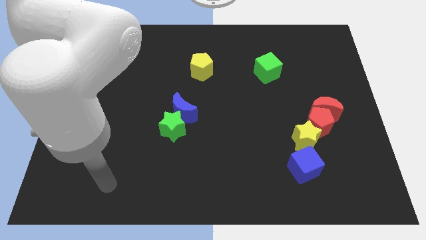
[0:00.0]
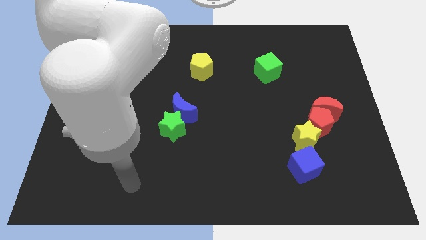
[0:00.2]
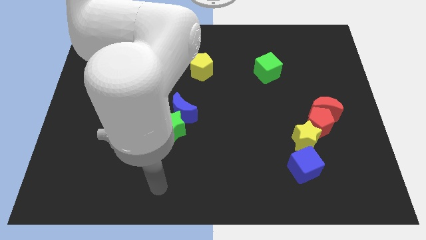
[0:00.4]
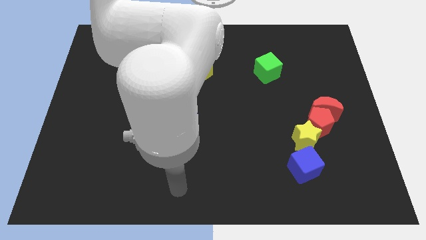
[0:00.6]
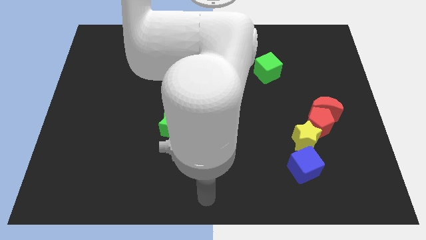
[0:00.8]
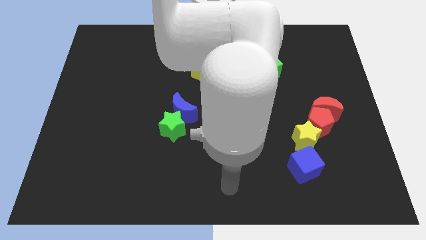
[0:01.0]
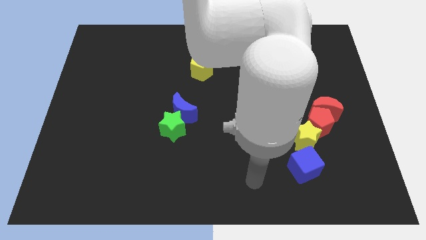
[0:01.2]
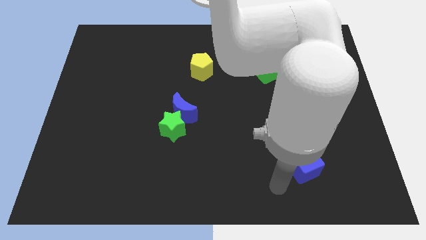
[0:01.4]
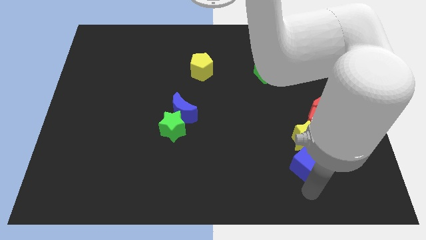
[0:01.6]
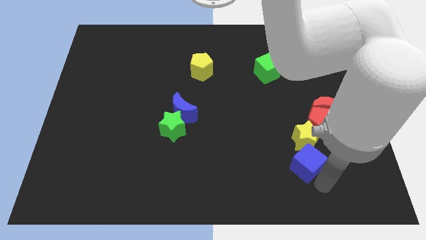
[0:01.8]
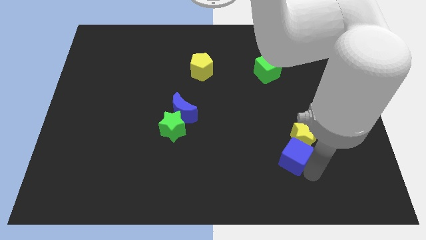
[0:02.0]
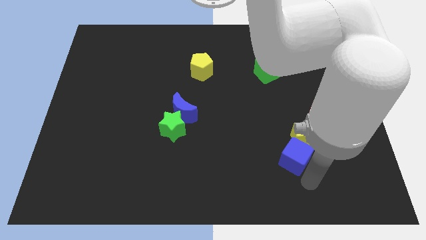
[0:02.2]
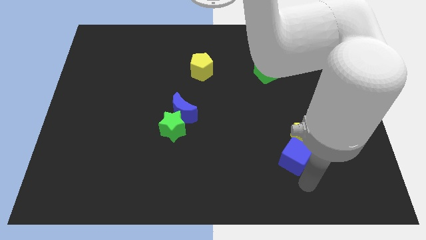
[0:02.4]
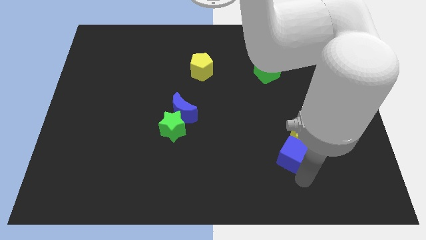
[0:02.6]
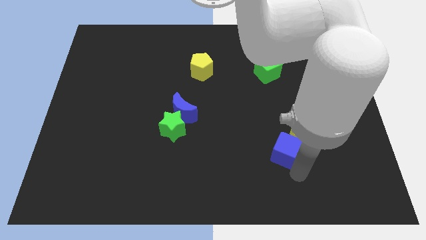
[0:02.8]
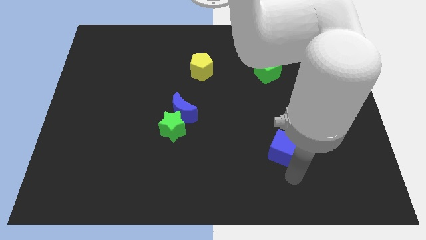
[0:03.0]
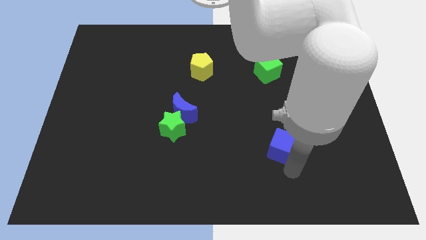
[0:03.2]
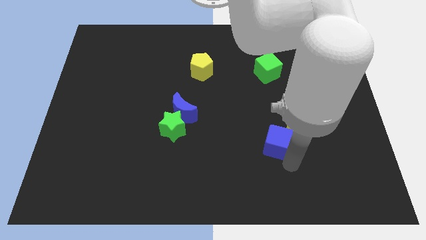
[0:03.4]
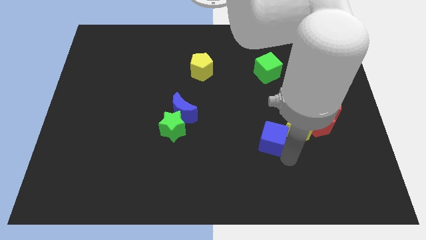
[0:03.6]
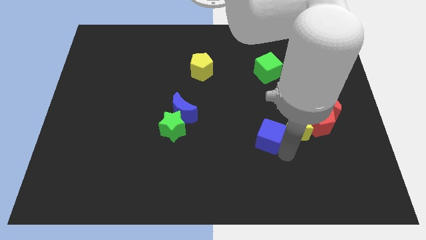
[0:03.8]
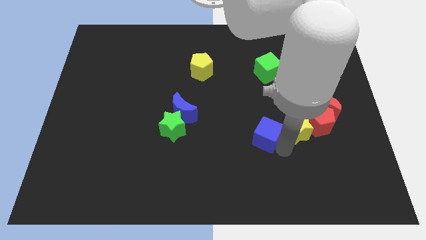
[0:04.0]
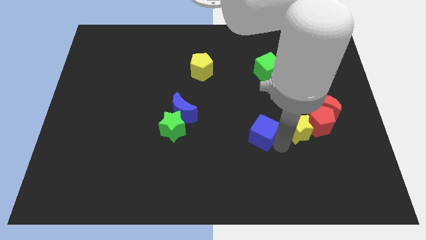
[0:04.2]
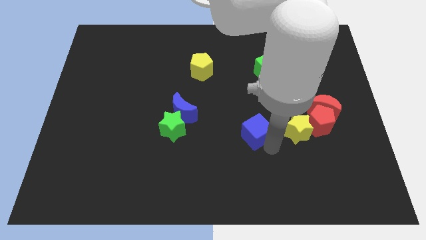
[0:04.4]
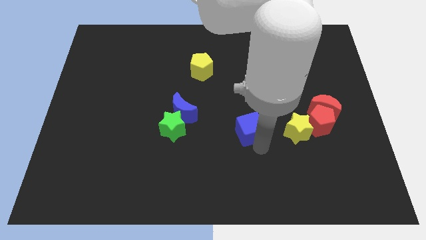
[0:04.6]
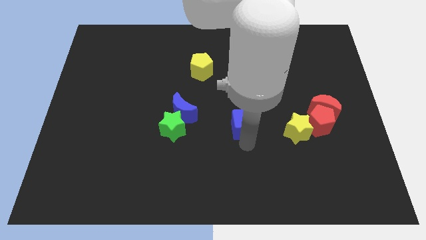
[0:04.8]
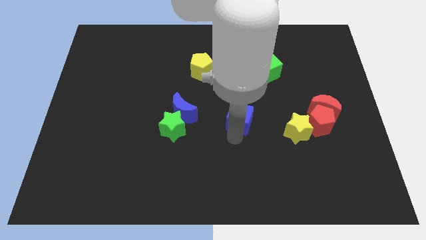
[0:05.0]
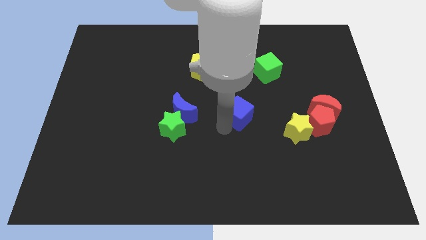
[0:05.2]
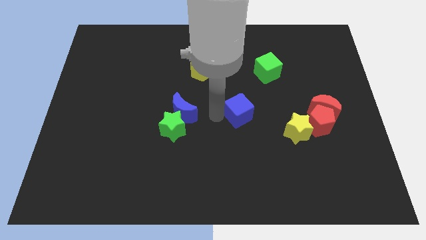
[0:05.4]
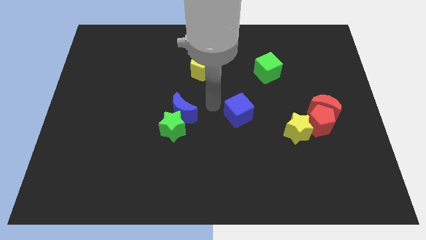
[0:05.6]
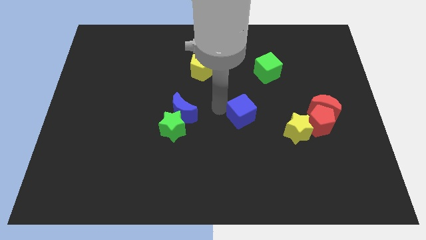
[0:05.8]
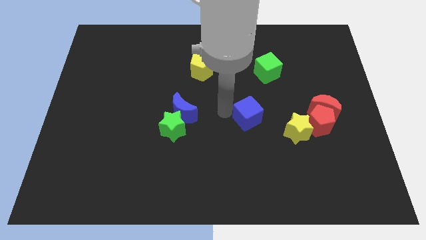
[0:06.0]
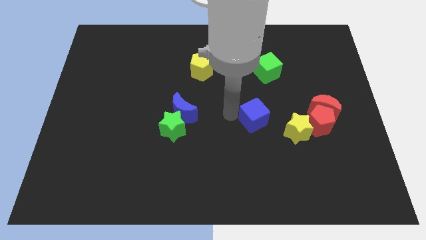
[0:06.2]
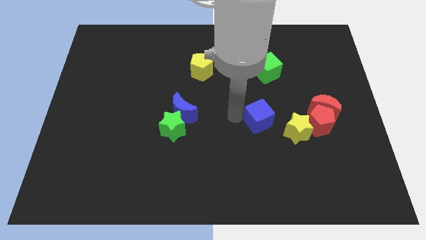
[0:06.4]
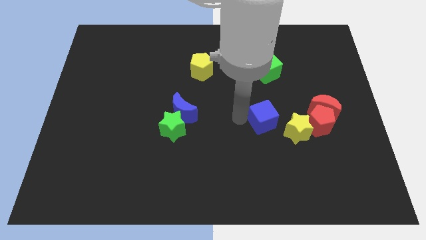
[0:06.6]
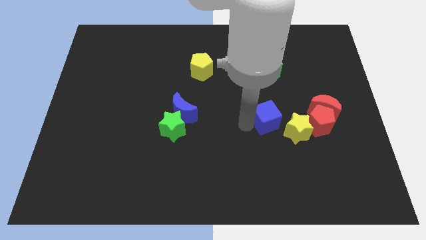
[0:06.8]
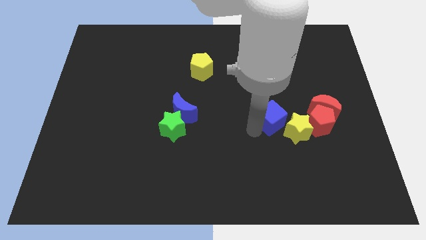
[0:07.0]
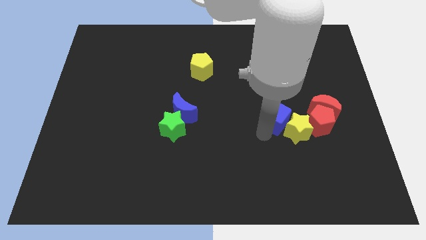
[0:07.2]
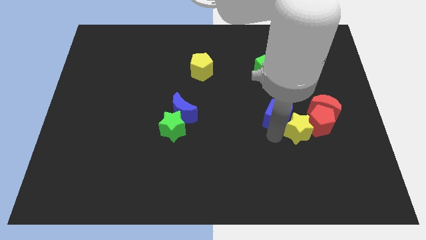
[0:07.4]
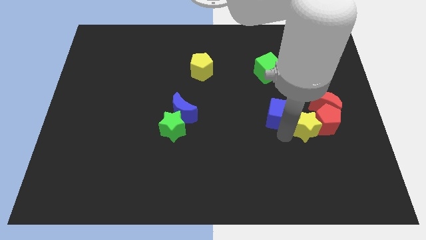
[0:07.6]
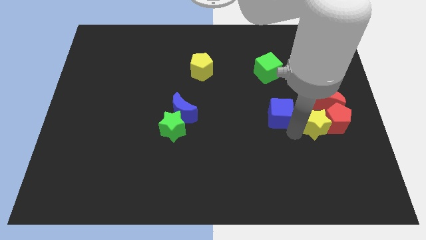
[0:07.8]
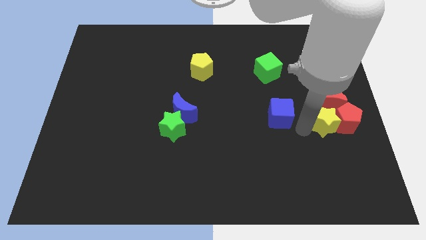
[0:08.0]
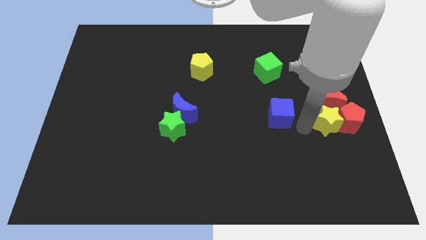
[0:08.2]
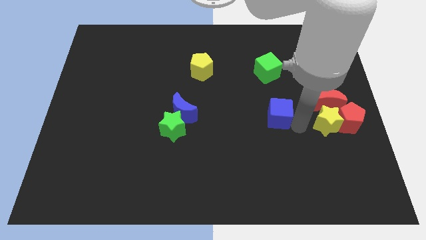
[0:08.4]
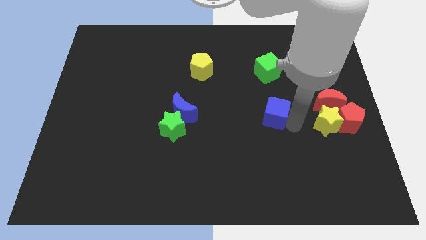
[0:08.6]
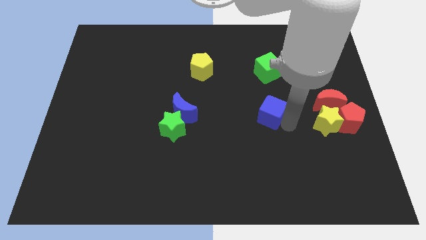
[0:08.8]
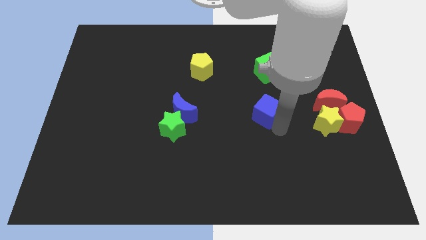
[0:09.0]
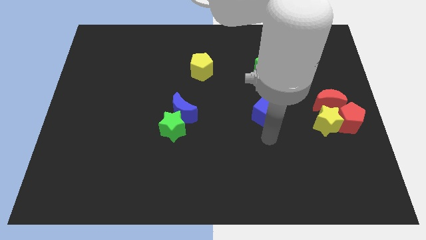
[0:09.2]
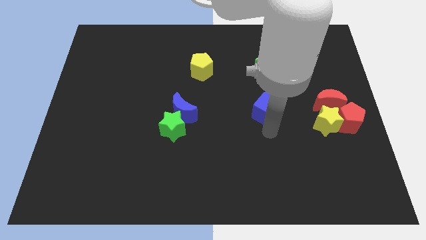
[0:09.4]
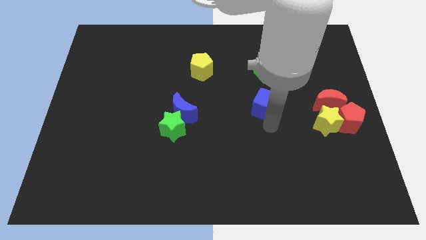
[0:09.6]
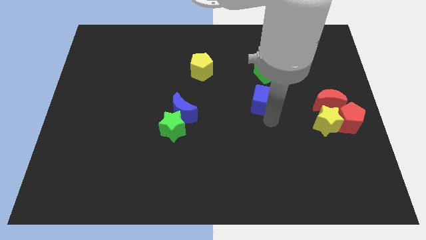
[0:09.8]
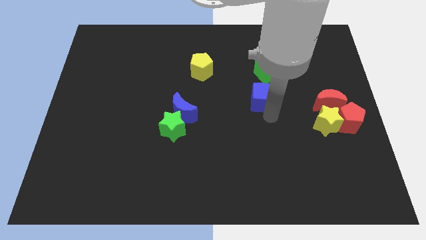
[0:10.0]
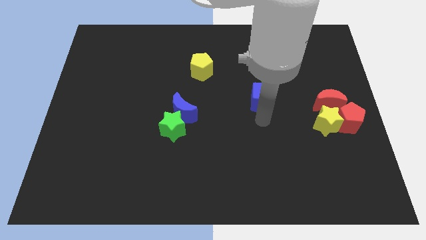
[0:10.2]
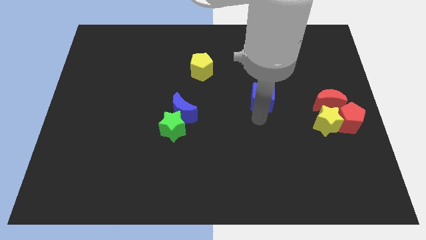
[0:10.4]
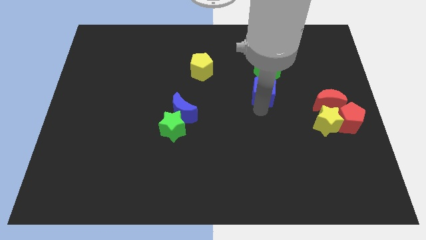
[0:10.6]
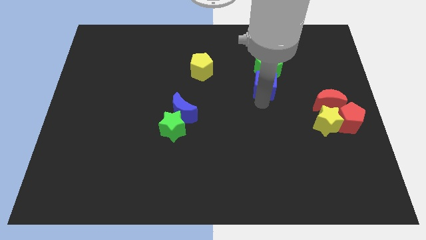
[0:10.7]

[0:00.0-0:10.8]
put the blue cube close to the green cube

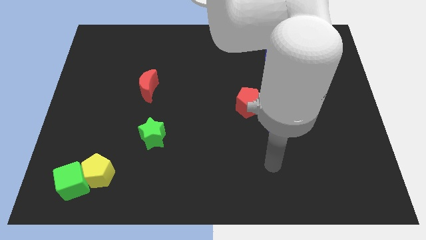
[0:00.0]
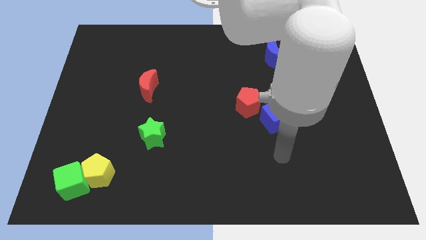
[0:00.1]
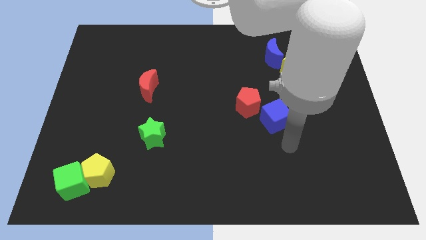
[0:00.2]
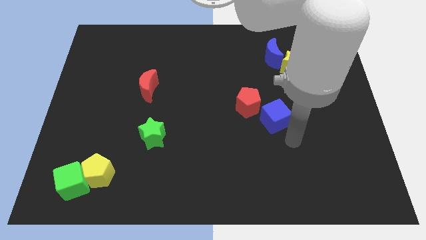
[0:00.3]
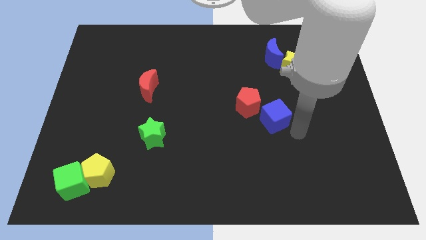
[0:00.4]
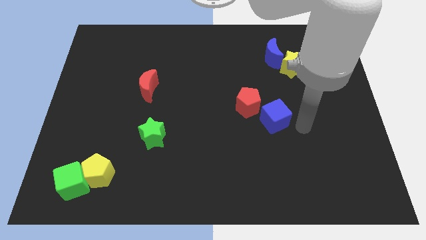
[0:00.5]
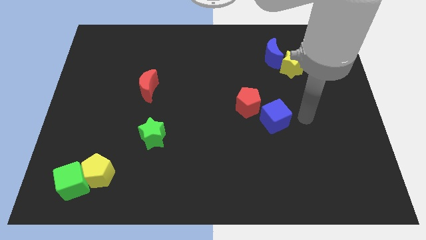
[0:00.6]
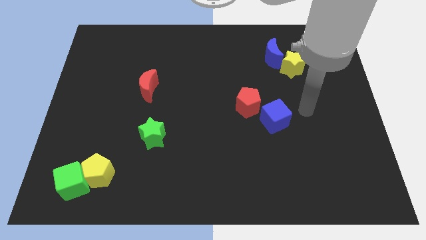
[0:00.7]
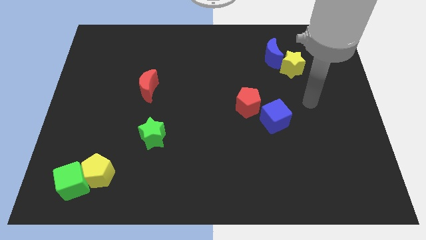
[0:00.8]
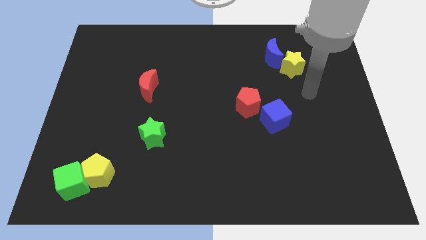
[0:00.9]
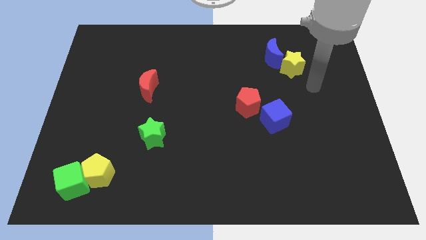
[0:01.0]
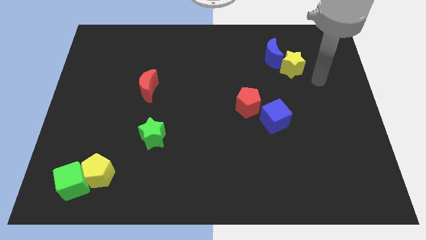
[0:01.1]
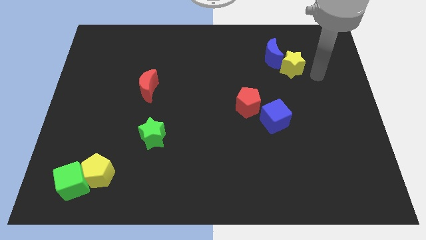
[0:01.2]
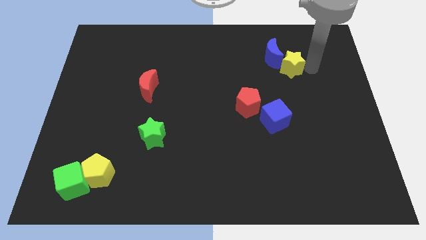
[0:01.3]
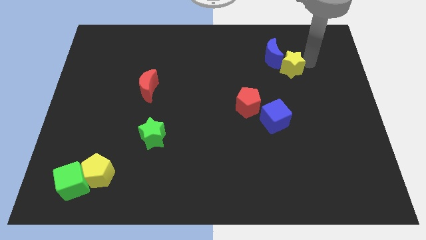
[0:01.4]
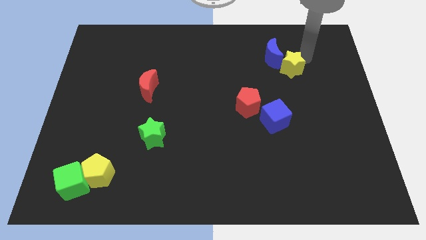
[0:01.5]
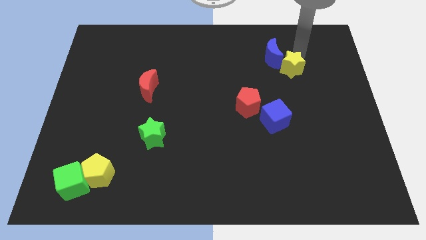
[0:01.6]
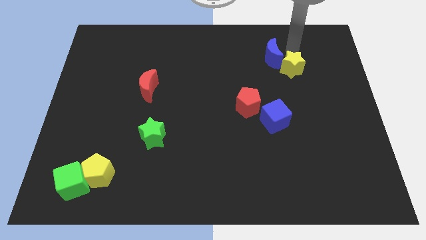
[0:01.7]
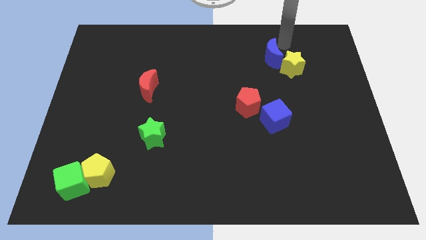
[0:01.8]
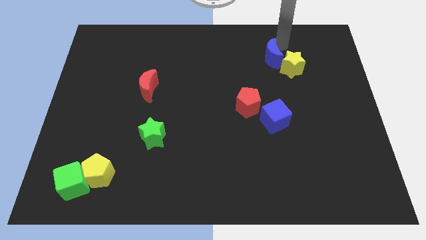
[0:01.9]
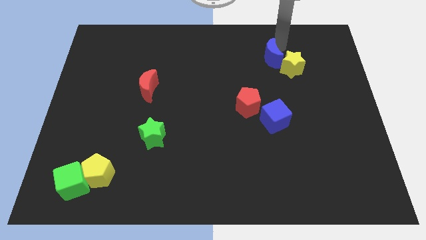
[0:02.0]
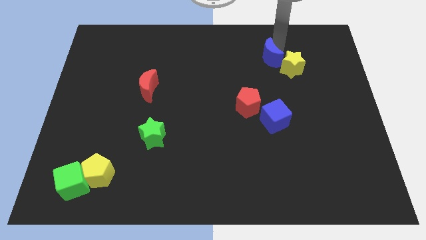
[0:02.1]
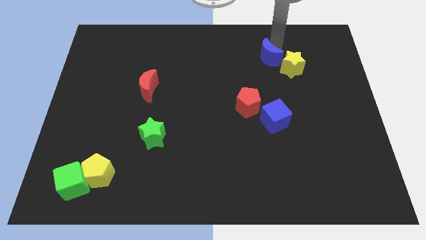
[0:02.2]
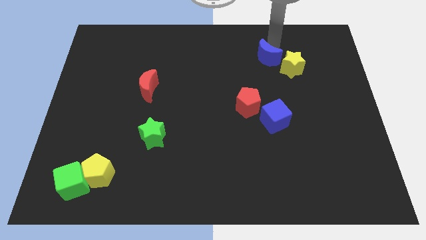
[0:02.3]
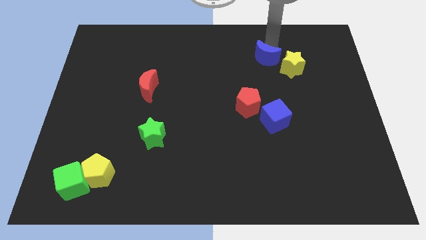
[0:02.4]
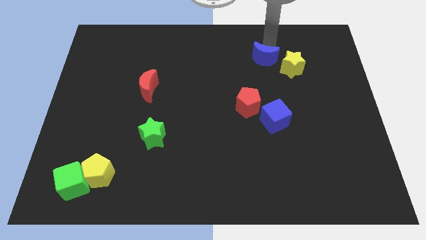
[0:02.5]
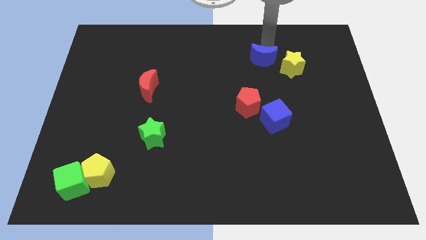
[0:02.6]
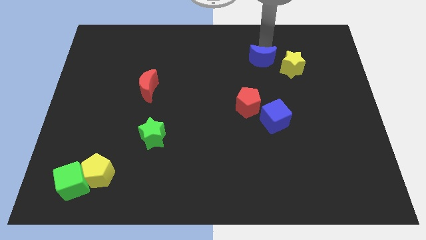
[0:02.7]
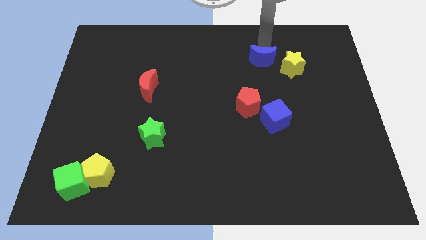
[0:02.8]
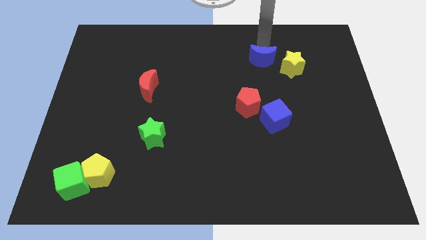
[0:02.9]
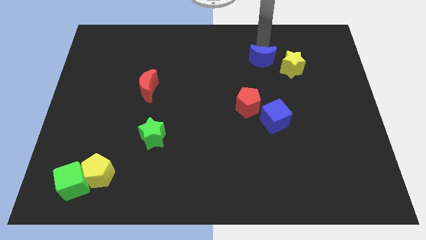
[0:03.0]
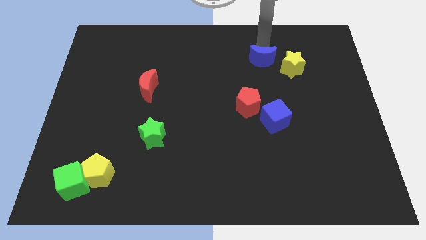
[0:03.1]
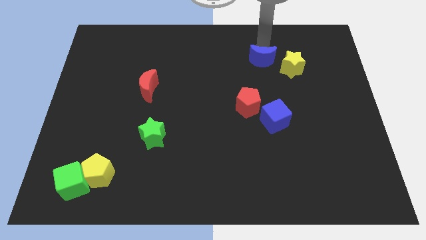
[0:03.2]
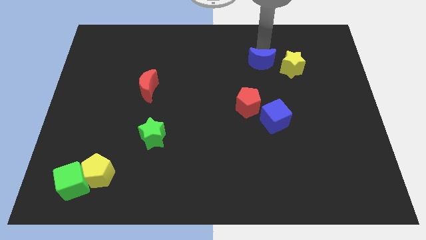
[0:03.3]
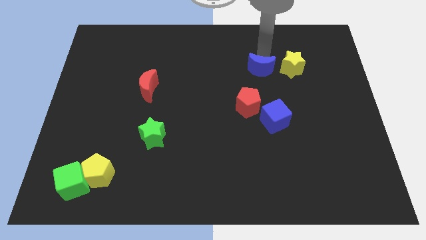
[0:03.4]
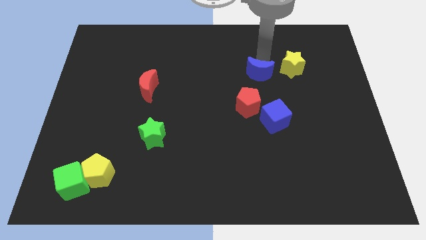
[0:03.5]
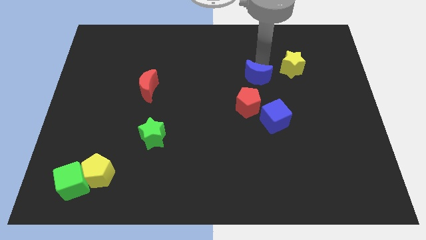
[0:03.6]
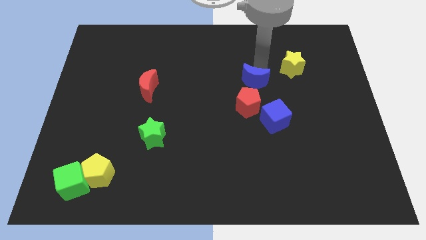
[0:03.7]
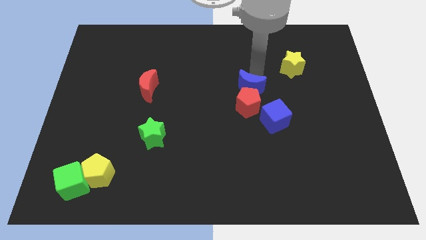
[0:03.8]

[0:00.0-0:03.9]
move the blue moon close to the red pentagon
